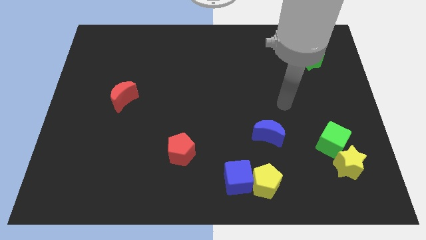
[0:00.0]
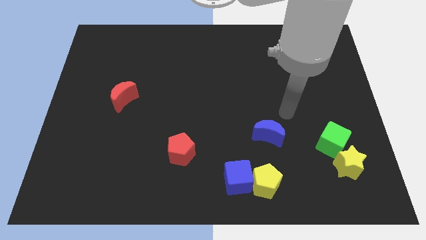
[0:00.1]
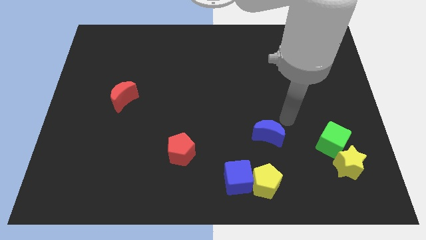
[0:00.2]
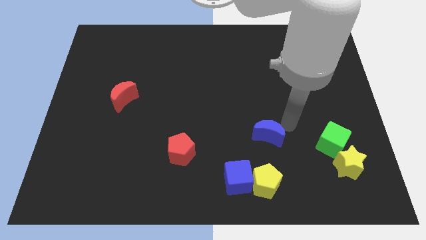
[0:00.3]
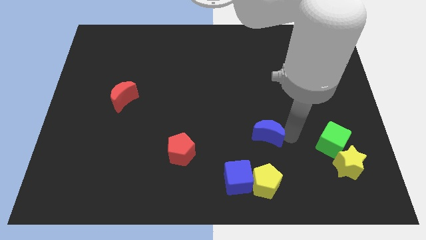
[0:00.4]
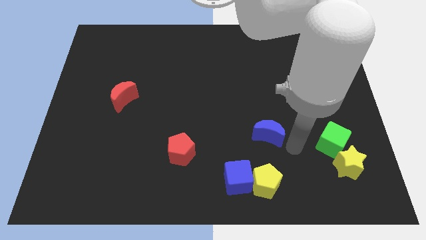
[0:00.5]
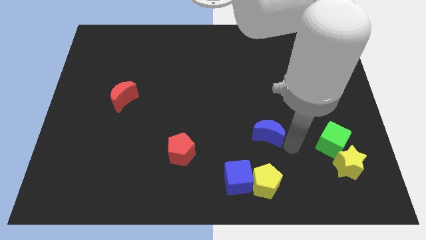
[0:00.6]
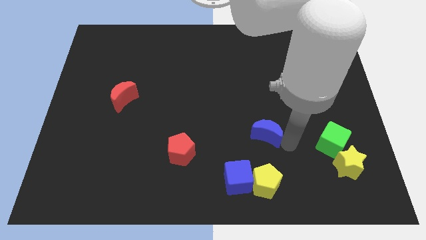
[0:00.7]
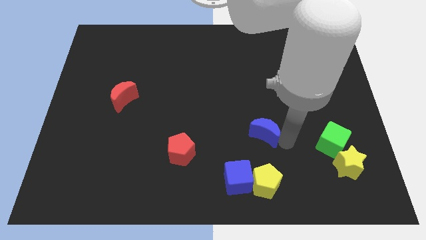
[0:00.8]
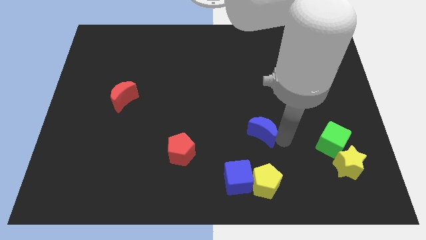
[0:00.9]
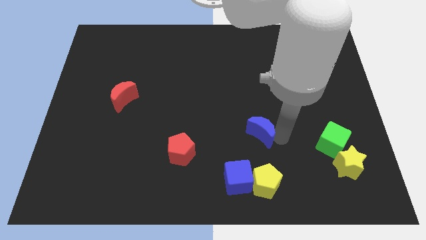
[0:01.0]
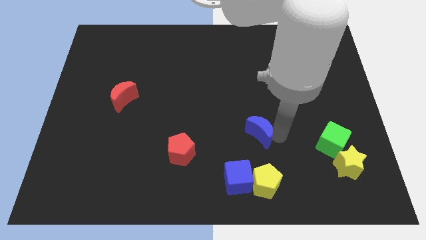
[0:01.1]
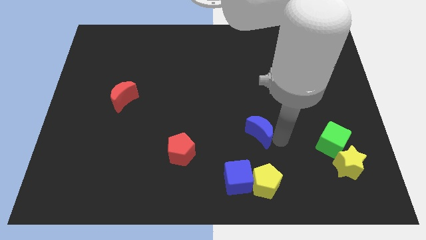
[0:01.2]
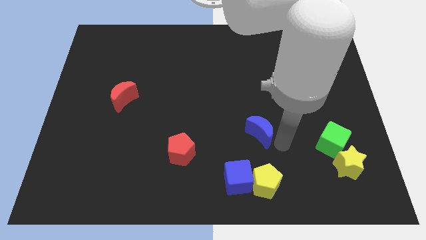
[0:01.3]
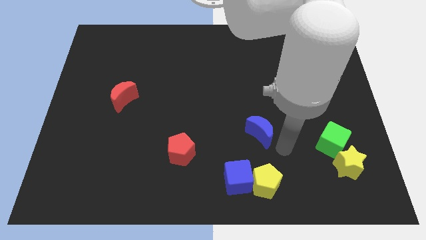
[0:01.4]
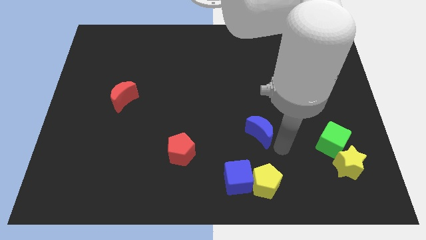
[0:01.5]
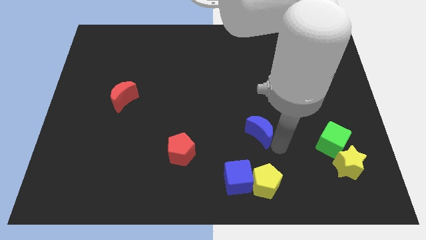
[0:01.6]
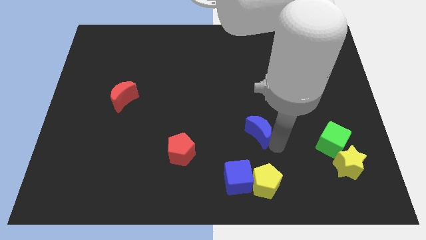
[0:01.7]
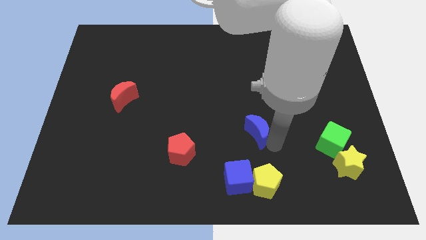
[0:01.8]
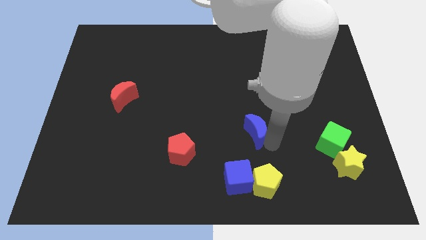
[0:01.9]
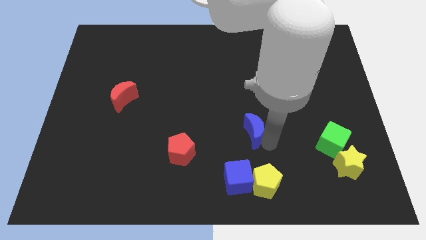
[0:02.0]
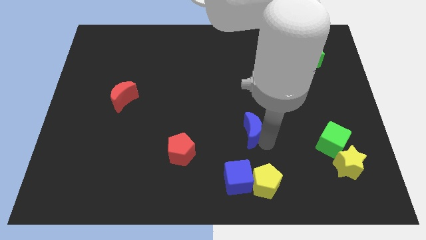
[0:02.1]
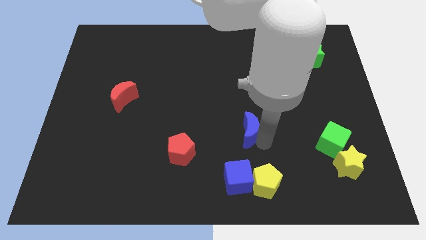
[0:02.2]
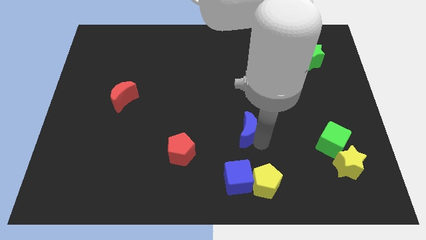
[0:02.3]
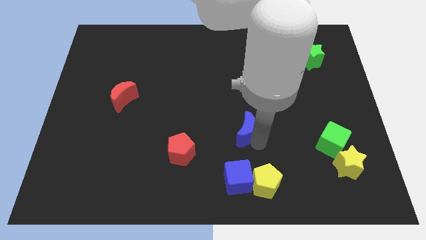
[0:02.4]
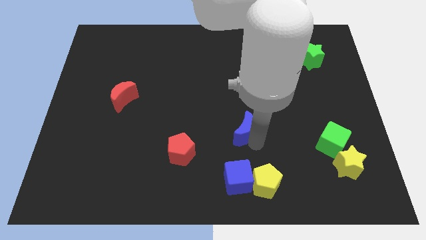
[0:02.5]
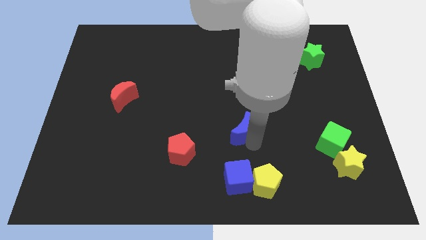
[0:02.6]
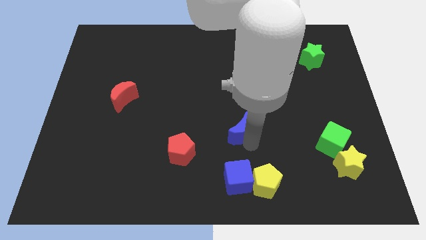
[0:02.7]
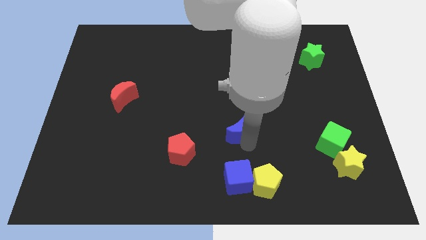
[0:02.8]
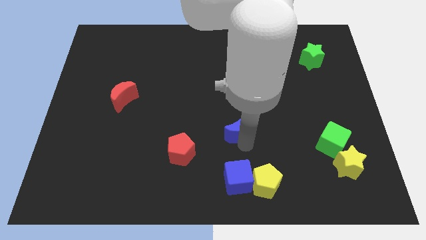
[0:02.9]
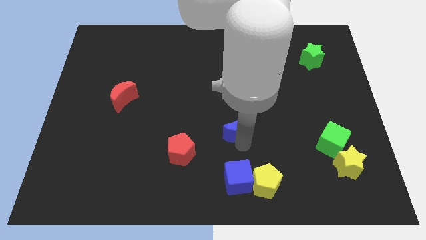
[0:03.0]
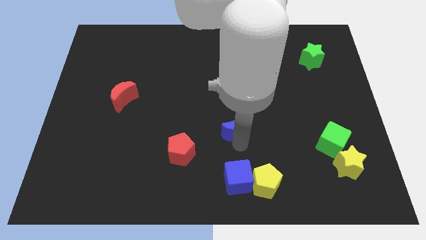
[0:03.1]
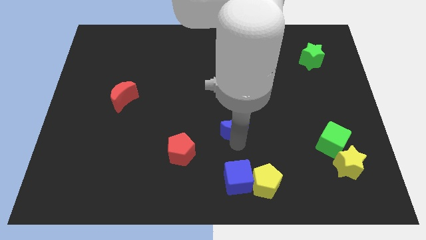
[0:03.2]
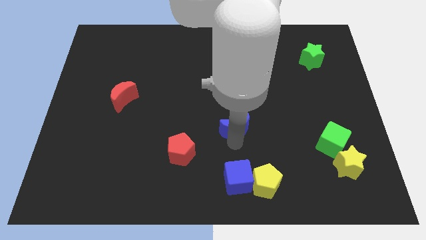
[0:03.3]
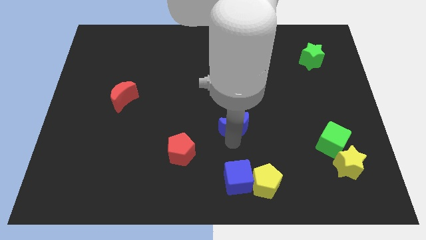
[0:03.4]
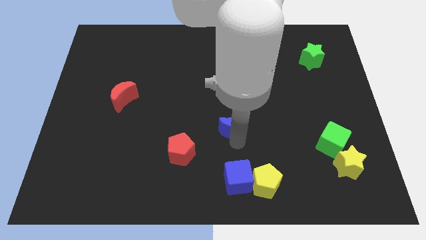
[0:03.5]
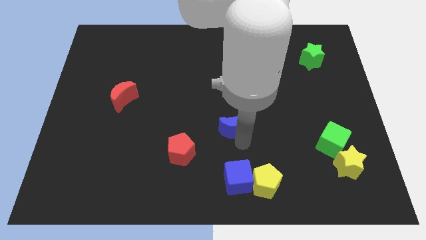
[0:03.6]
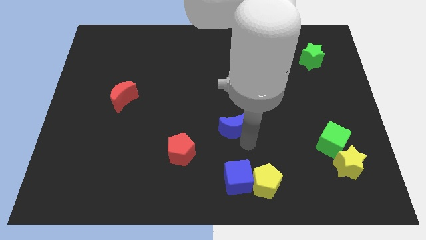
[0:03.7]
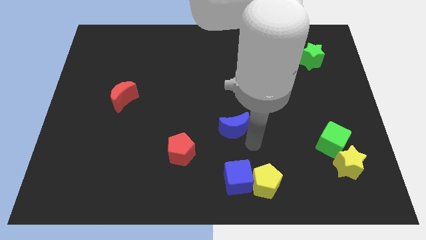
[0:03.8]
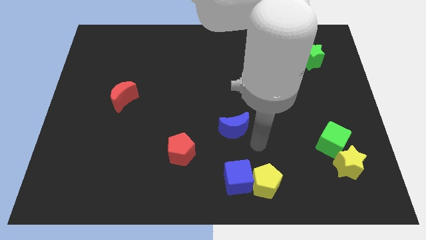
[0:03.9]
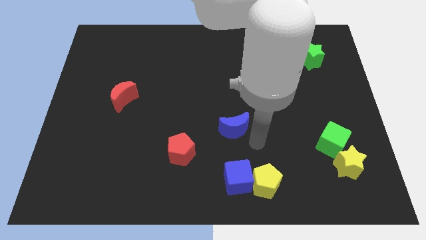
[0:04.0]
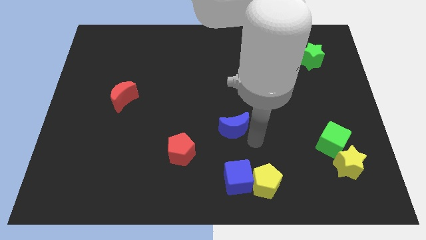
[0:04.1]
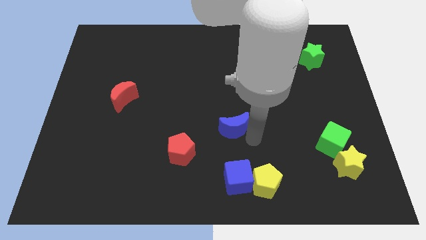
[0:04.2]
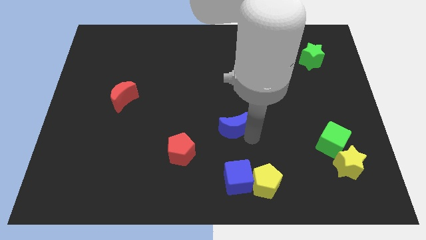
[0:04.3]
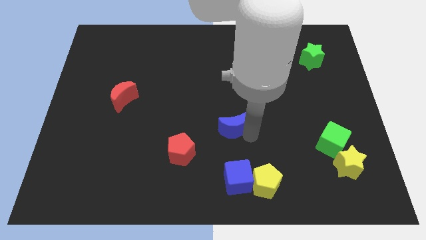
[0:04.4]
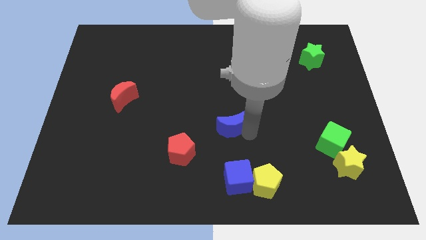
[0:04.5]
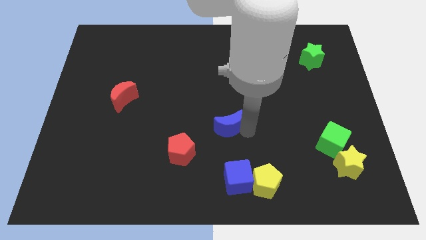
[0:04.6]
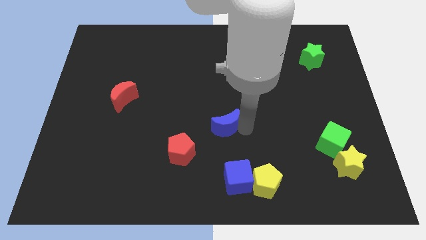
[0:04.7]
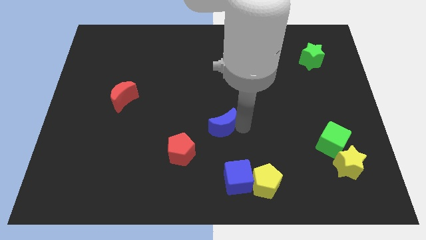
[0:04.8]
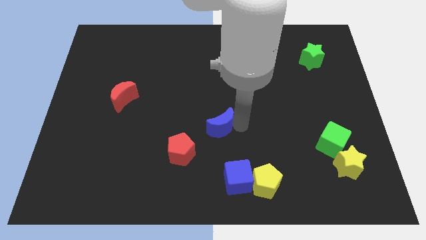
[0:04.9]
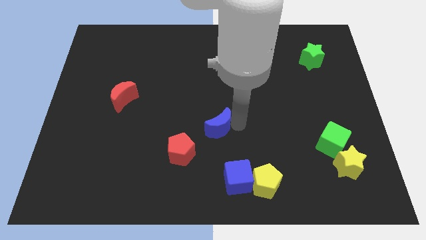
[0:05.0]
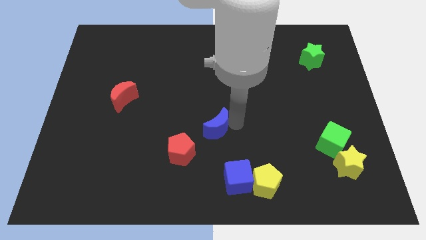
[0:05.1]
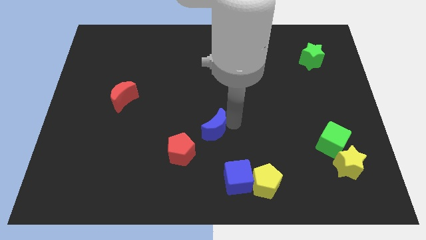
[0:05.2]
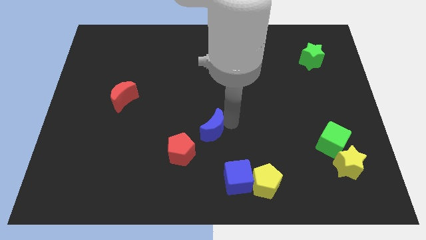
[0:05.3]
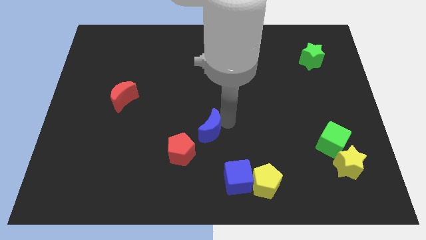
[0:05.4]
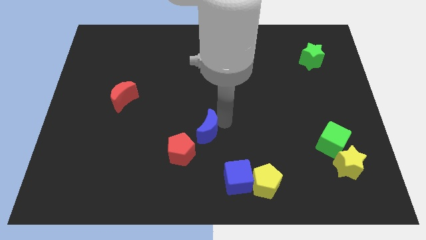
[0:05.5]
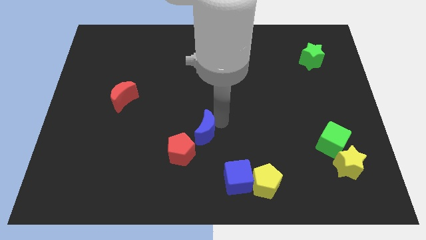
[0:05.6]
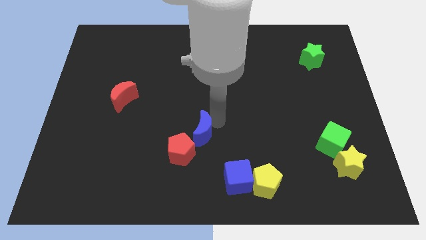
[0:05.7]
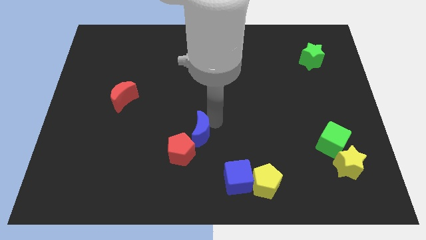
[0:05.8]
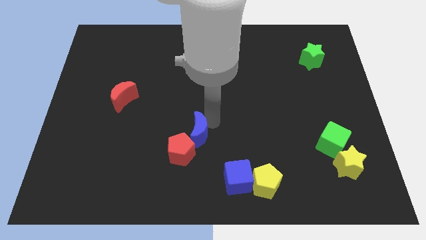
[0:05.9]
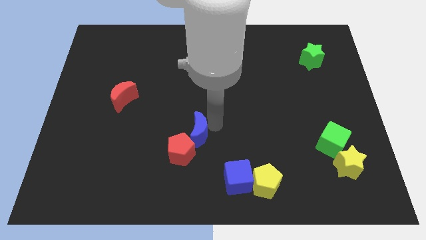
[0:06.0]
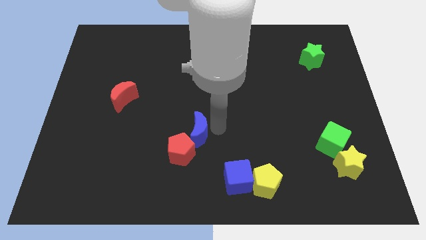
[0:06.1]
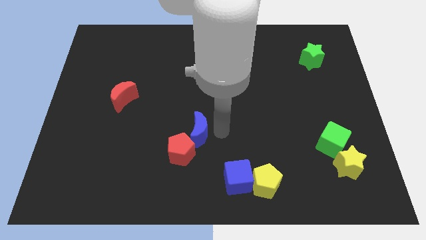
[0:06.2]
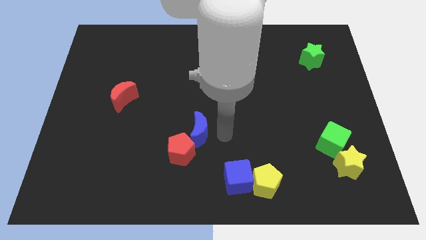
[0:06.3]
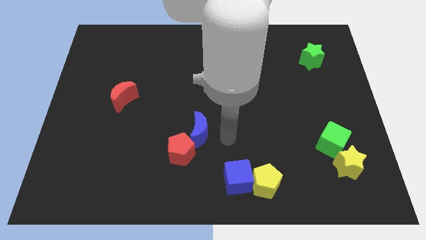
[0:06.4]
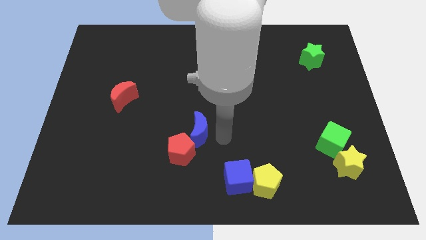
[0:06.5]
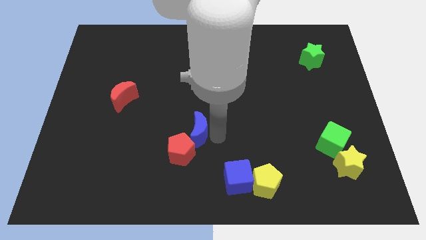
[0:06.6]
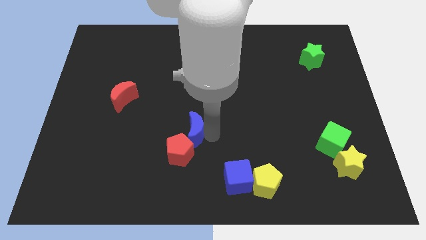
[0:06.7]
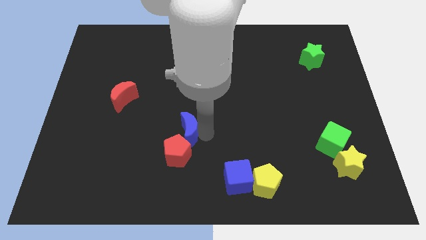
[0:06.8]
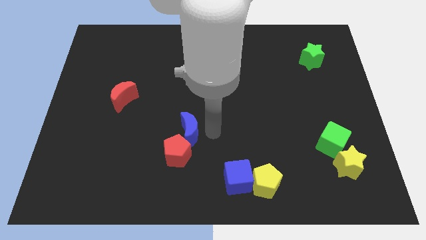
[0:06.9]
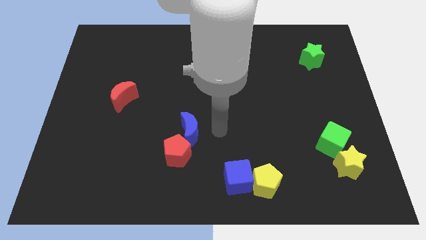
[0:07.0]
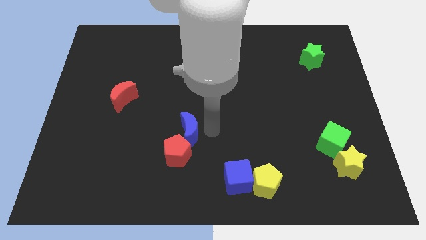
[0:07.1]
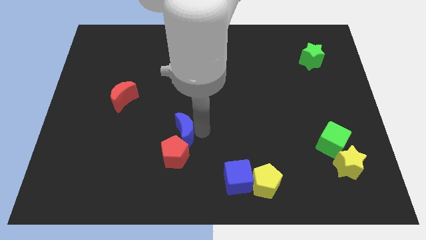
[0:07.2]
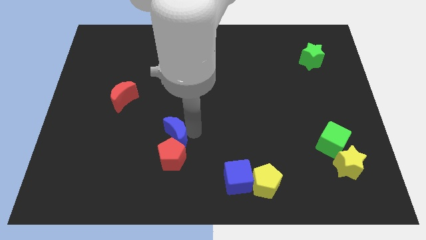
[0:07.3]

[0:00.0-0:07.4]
slide the blue moon to the top left side of the red pentagon

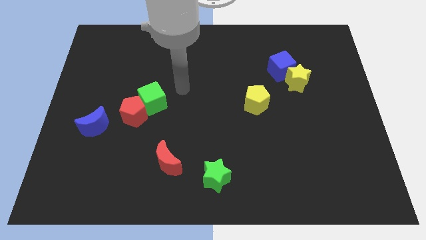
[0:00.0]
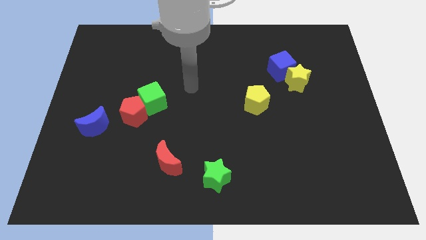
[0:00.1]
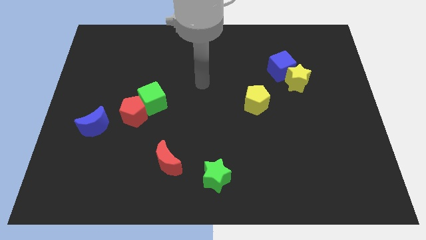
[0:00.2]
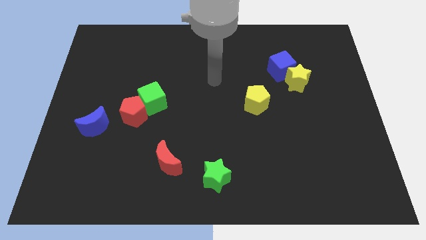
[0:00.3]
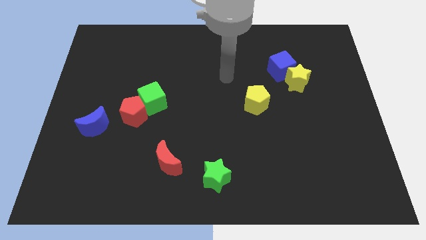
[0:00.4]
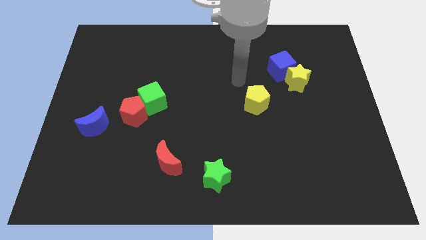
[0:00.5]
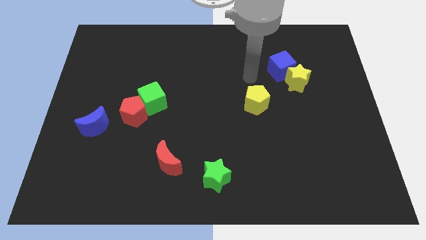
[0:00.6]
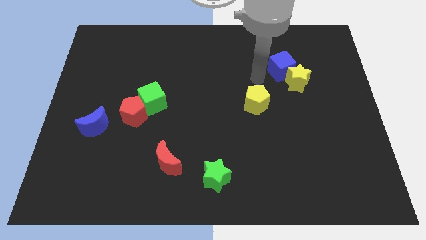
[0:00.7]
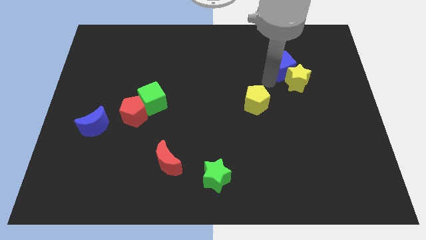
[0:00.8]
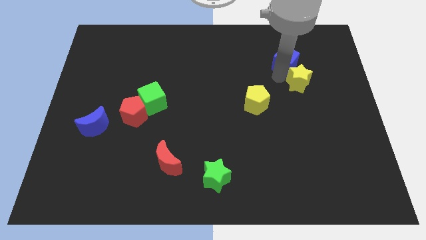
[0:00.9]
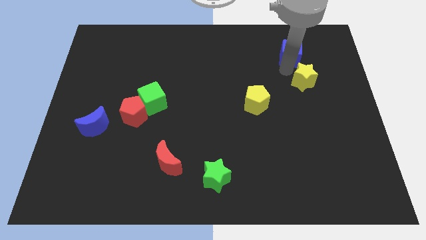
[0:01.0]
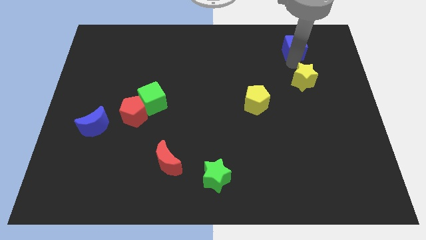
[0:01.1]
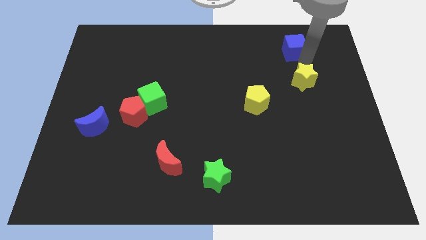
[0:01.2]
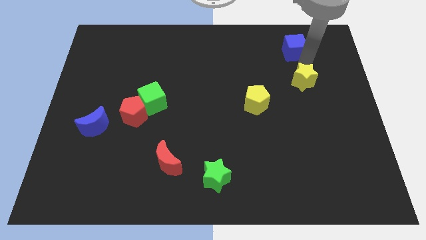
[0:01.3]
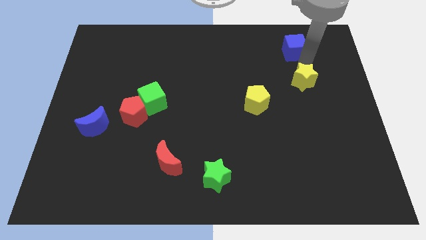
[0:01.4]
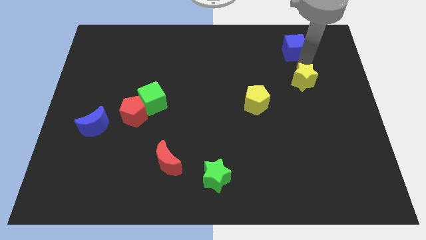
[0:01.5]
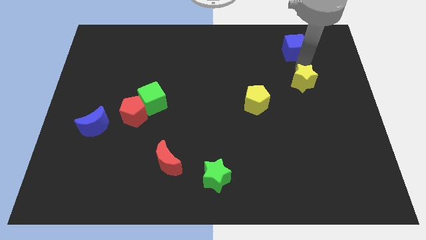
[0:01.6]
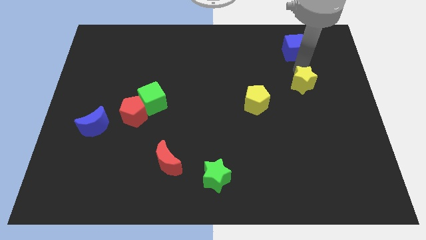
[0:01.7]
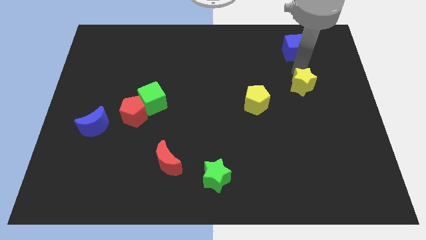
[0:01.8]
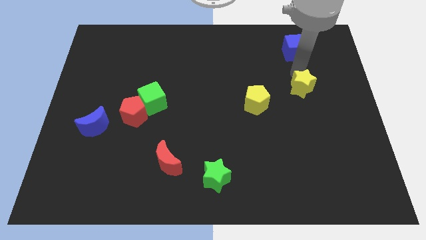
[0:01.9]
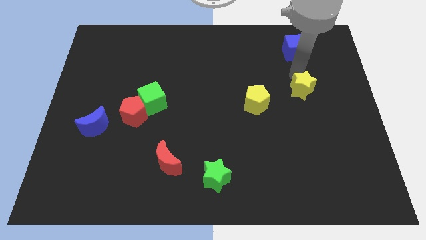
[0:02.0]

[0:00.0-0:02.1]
slide the yellow star to the right of the yellow pentagon
